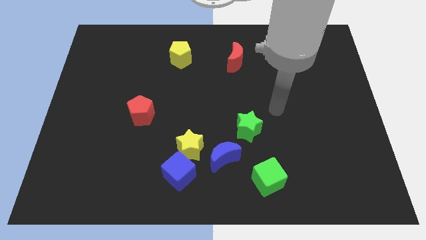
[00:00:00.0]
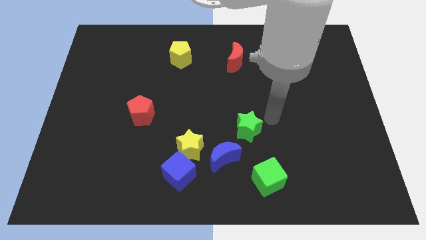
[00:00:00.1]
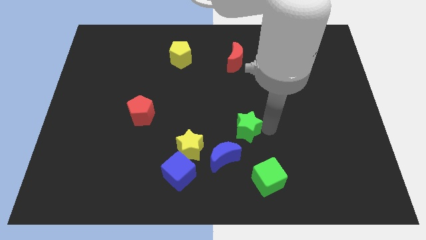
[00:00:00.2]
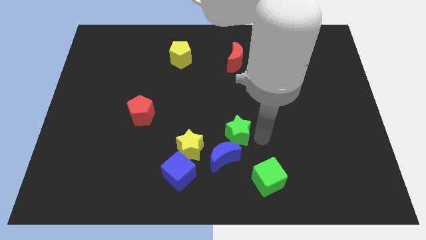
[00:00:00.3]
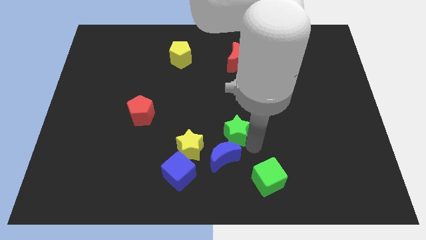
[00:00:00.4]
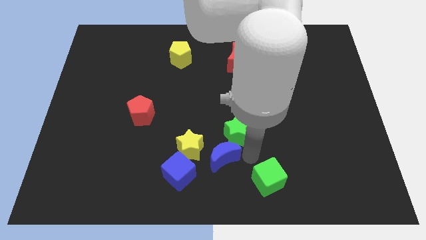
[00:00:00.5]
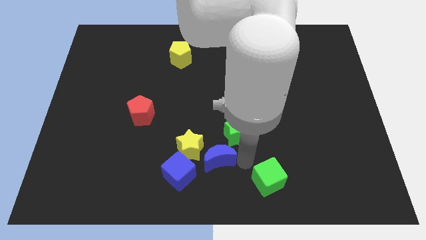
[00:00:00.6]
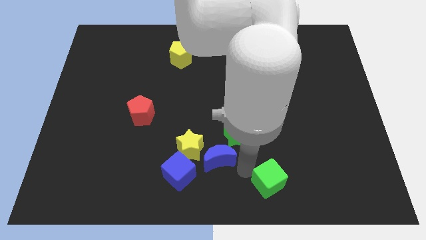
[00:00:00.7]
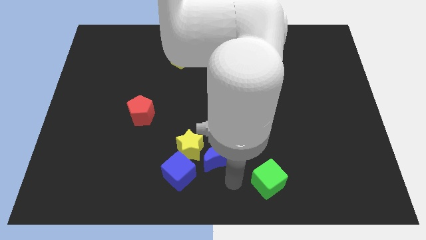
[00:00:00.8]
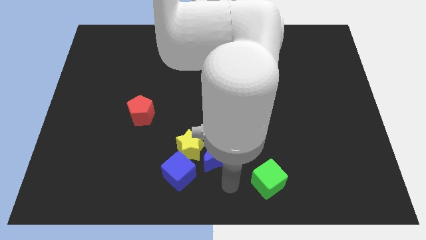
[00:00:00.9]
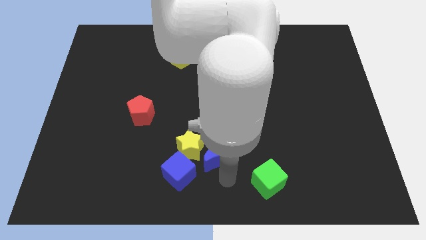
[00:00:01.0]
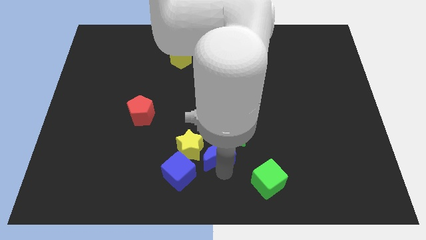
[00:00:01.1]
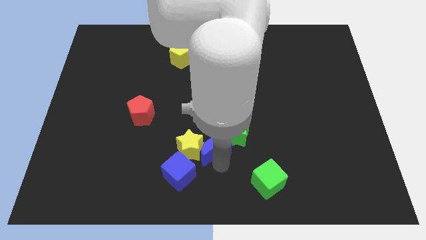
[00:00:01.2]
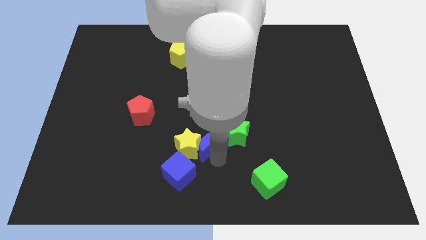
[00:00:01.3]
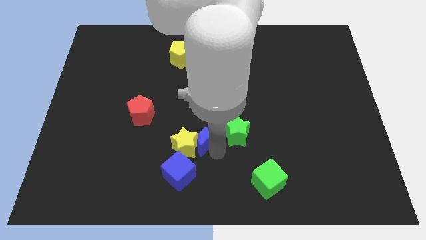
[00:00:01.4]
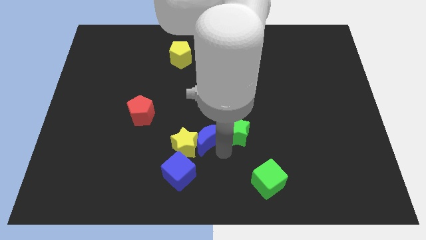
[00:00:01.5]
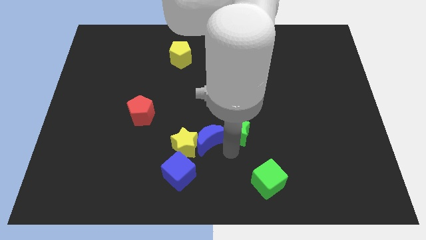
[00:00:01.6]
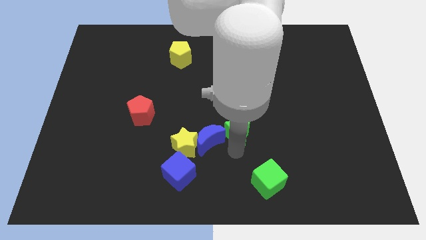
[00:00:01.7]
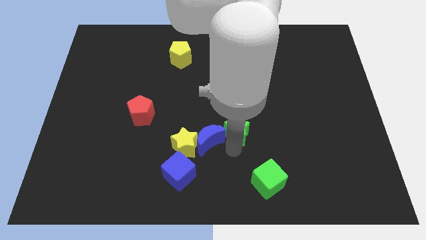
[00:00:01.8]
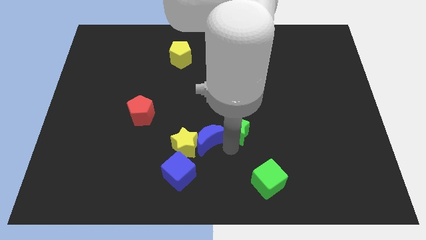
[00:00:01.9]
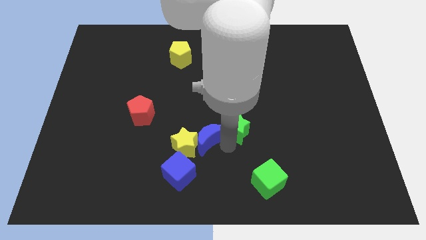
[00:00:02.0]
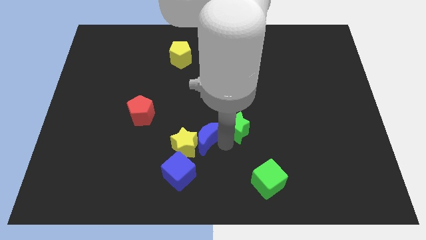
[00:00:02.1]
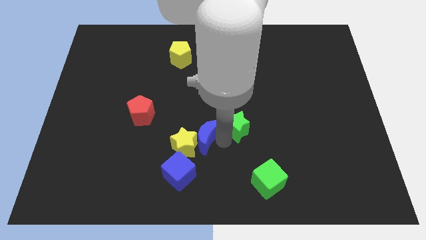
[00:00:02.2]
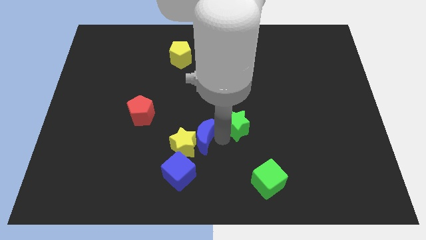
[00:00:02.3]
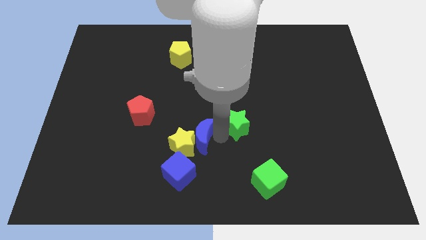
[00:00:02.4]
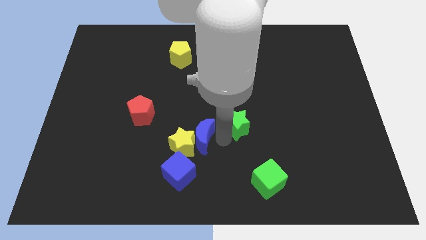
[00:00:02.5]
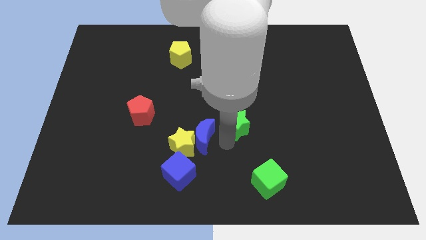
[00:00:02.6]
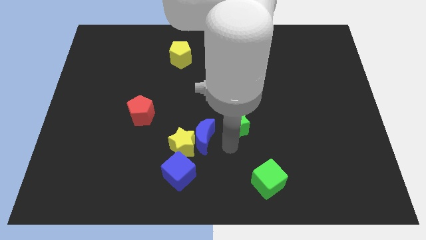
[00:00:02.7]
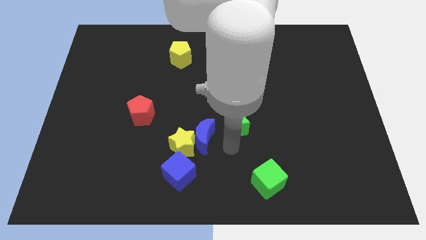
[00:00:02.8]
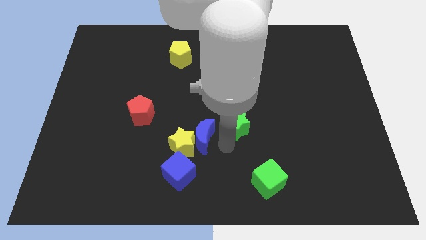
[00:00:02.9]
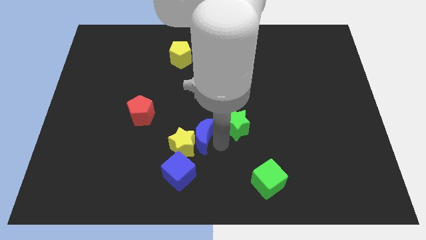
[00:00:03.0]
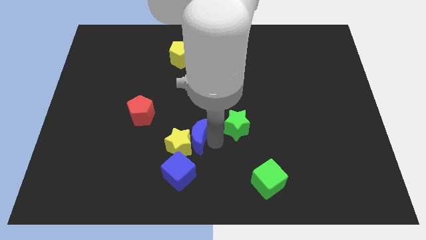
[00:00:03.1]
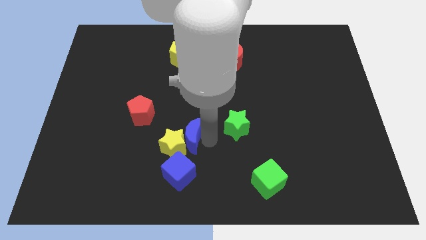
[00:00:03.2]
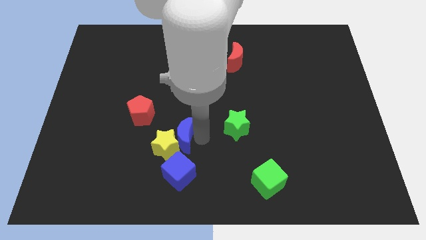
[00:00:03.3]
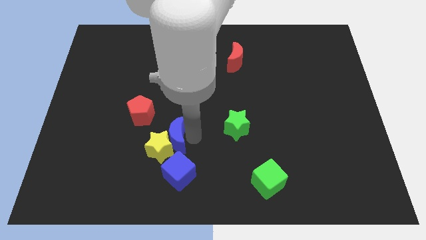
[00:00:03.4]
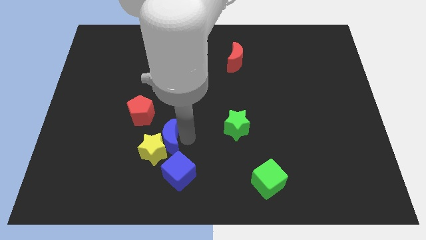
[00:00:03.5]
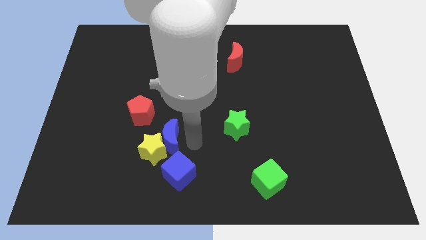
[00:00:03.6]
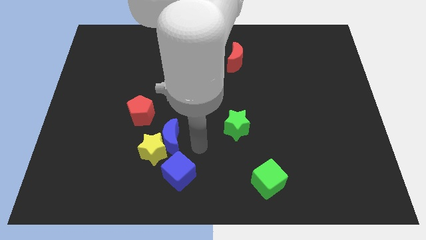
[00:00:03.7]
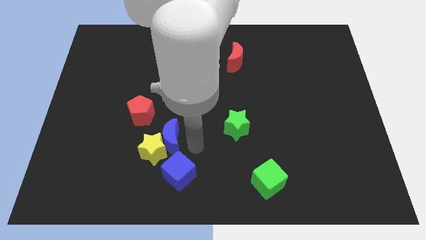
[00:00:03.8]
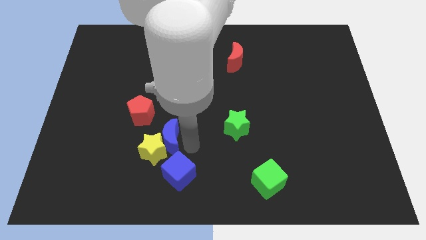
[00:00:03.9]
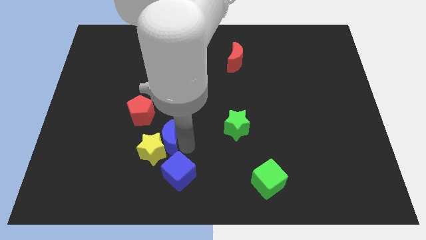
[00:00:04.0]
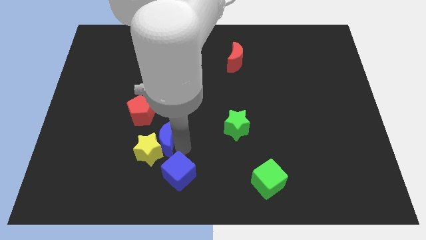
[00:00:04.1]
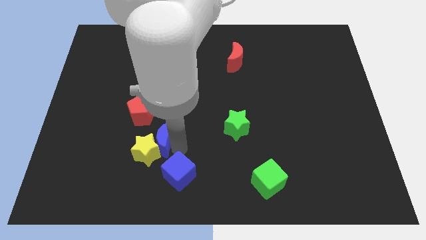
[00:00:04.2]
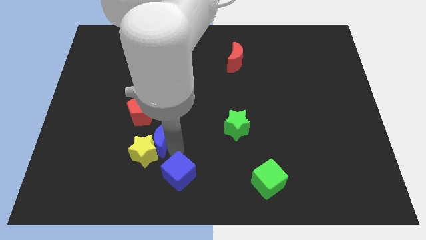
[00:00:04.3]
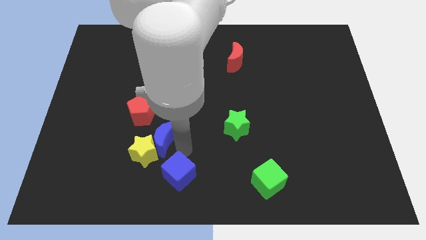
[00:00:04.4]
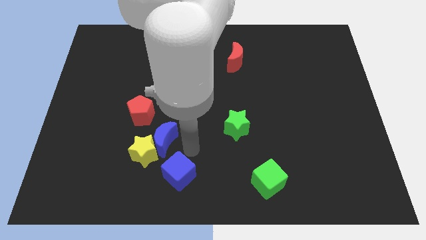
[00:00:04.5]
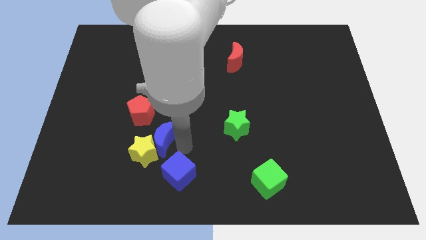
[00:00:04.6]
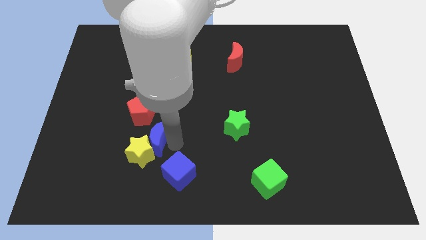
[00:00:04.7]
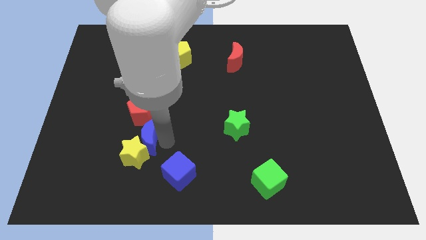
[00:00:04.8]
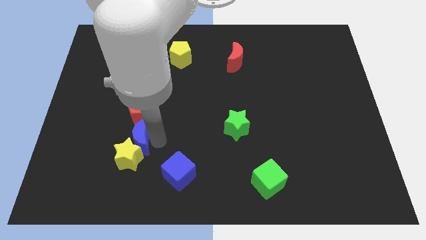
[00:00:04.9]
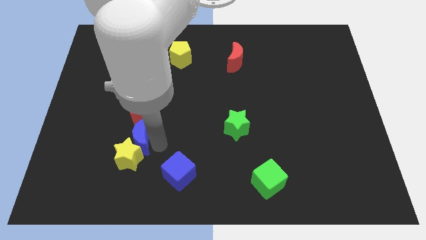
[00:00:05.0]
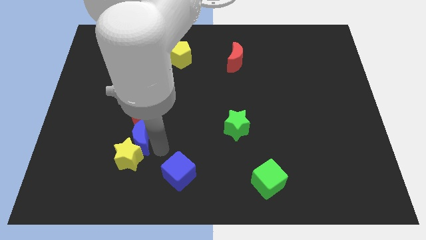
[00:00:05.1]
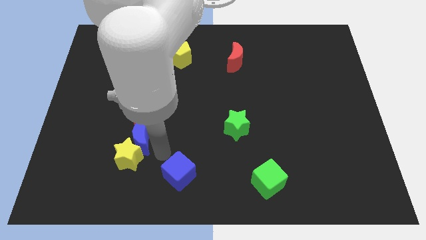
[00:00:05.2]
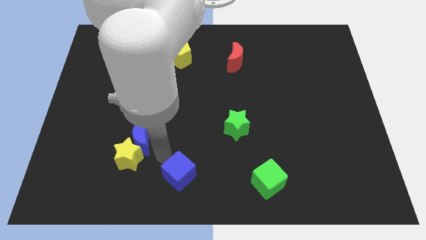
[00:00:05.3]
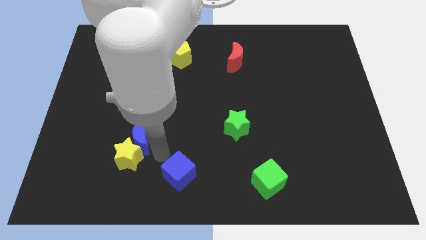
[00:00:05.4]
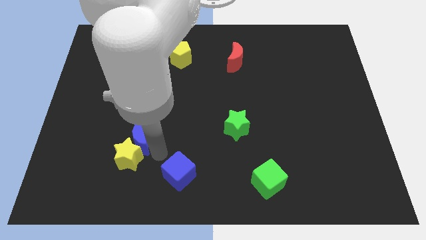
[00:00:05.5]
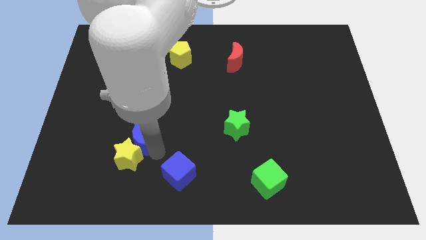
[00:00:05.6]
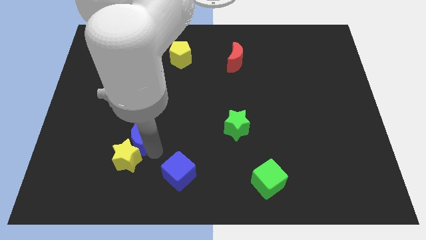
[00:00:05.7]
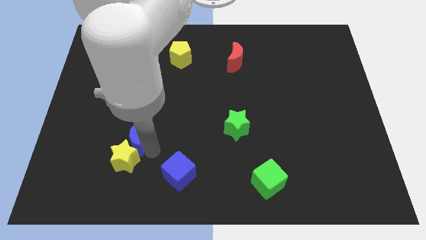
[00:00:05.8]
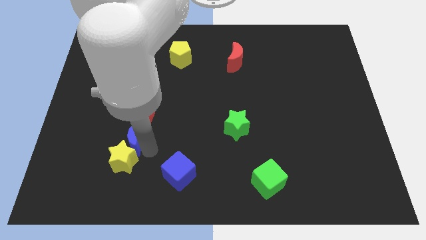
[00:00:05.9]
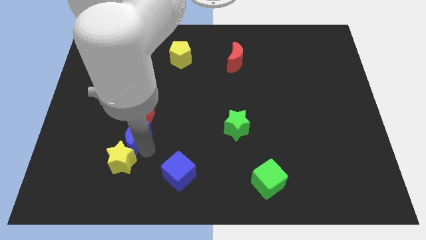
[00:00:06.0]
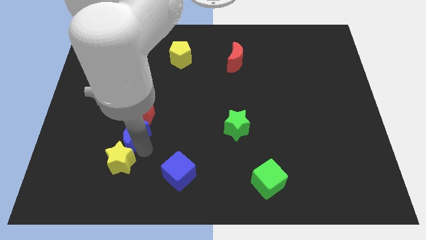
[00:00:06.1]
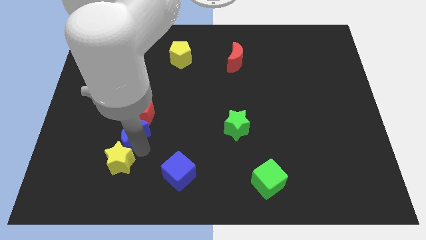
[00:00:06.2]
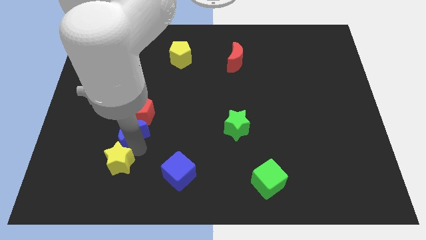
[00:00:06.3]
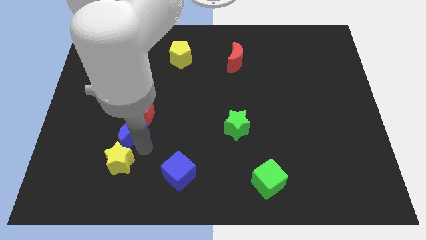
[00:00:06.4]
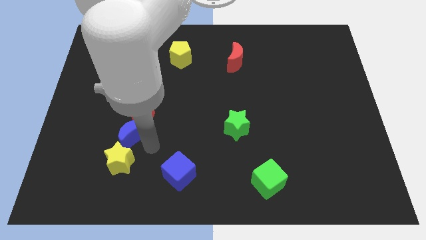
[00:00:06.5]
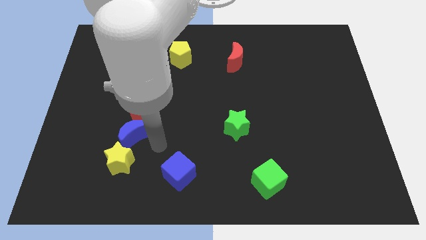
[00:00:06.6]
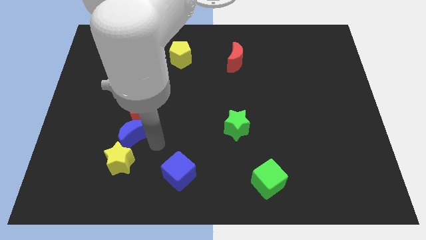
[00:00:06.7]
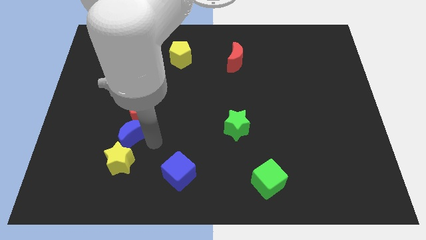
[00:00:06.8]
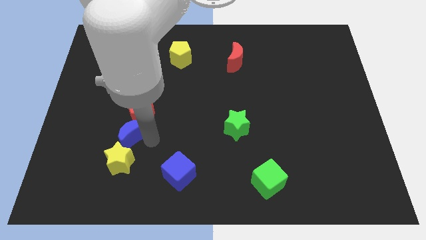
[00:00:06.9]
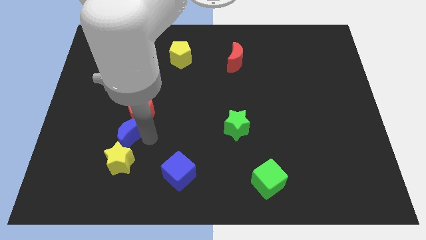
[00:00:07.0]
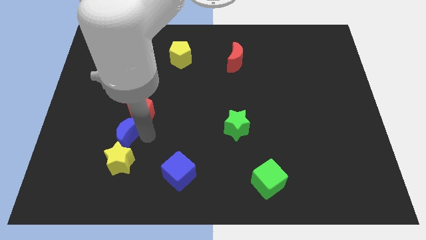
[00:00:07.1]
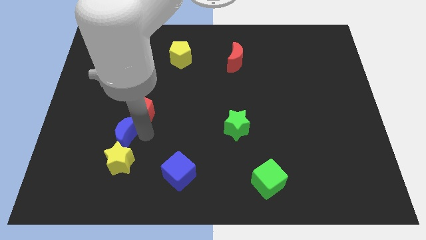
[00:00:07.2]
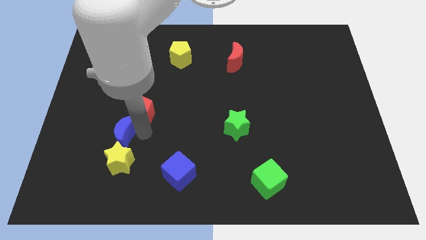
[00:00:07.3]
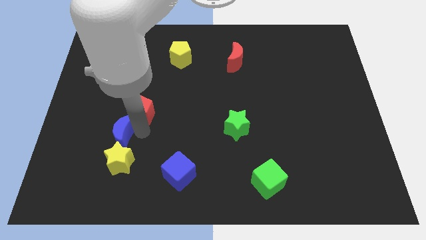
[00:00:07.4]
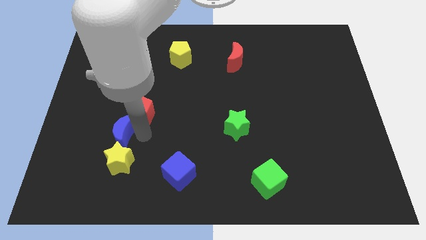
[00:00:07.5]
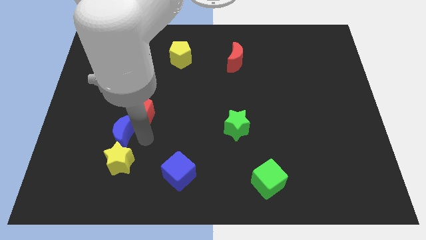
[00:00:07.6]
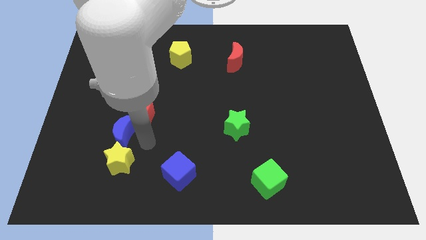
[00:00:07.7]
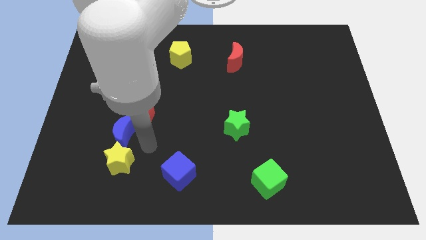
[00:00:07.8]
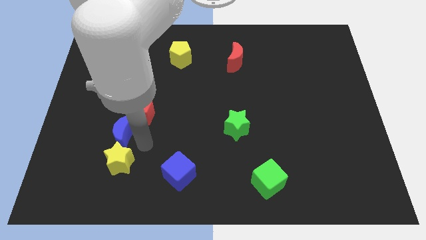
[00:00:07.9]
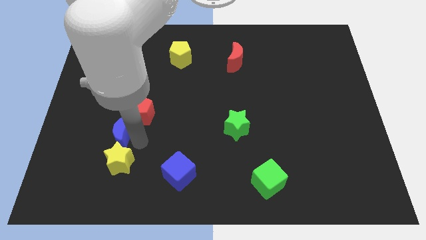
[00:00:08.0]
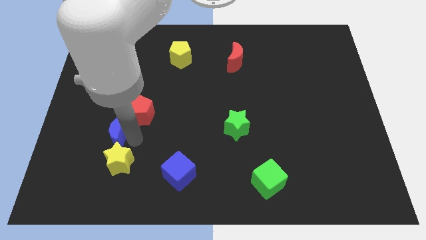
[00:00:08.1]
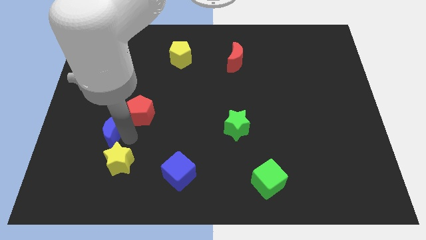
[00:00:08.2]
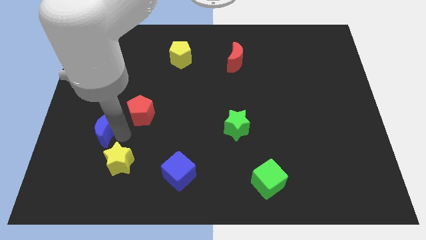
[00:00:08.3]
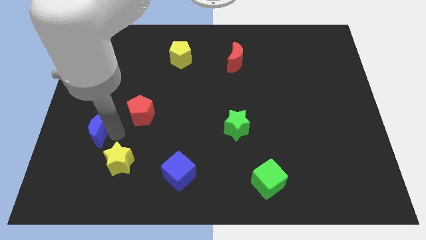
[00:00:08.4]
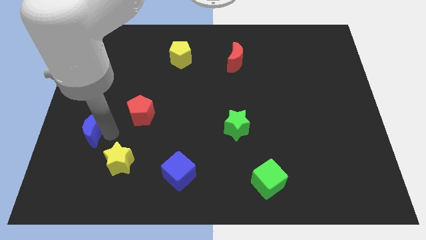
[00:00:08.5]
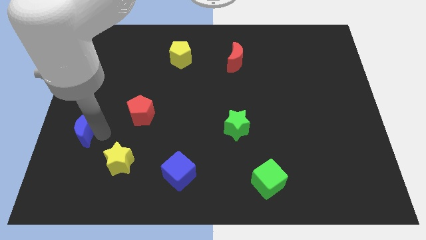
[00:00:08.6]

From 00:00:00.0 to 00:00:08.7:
push the blue moon to the left side
